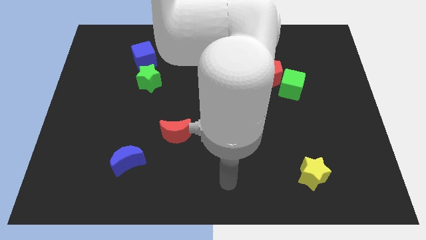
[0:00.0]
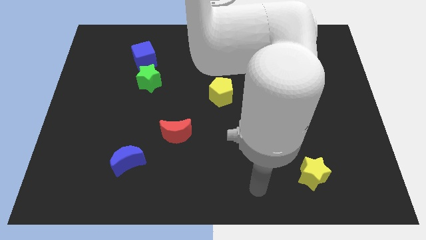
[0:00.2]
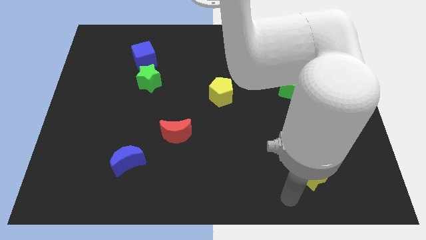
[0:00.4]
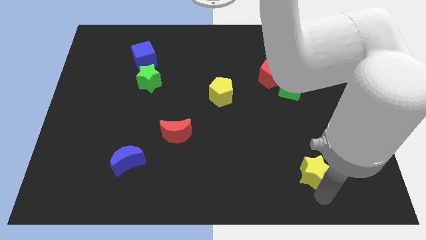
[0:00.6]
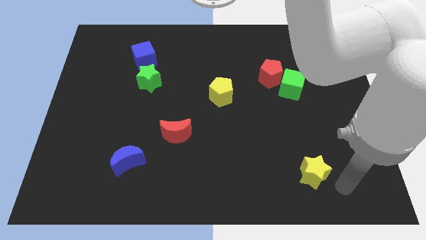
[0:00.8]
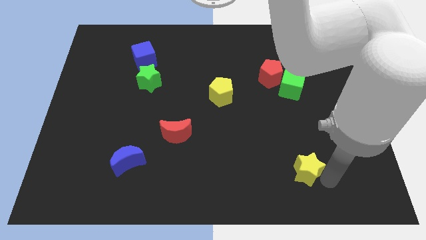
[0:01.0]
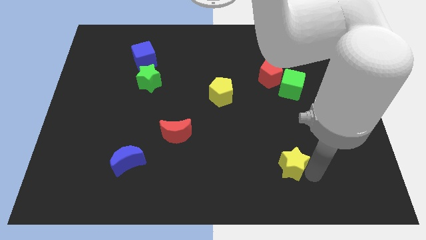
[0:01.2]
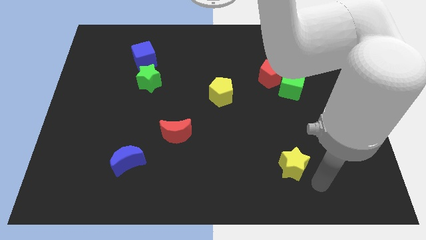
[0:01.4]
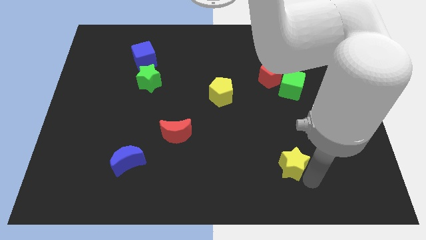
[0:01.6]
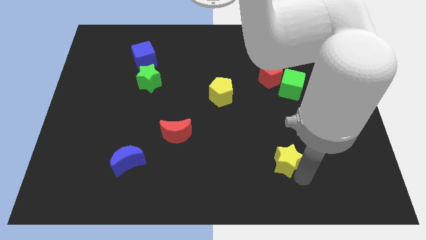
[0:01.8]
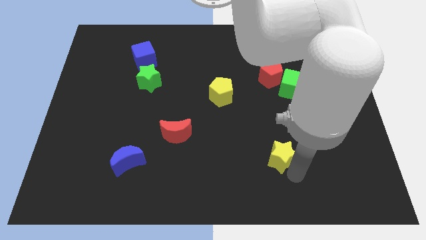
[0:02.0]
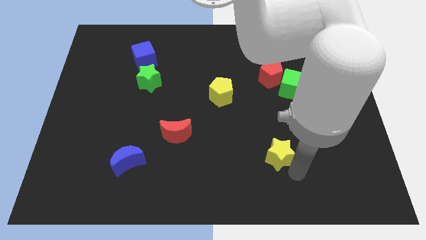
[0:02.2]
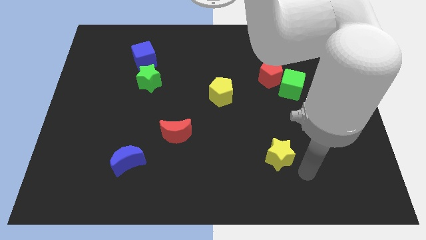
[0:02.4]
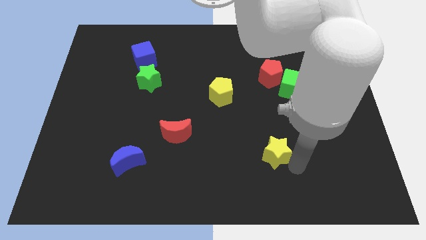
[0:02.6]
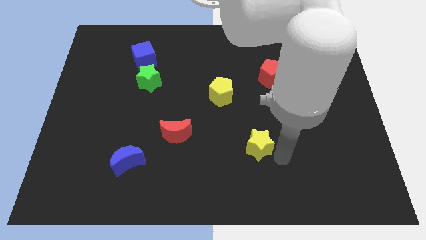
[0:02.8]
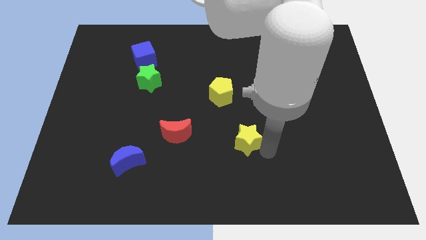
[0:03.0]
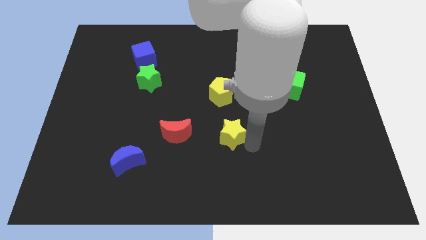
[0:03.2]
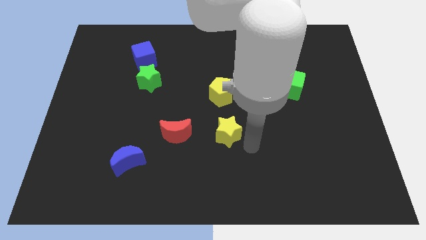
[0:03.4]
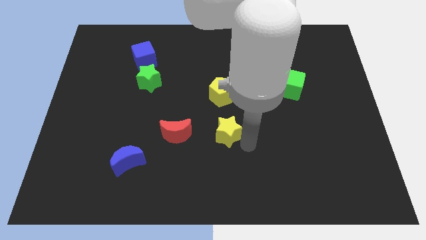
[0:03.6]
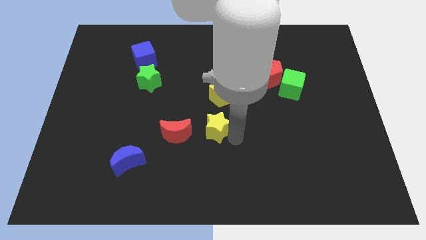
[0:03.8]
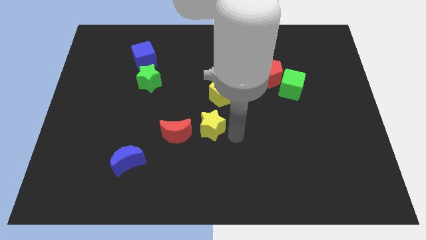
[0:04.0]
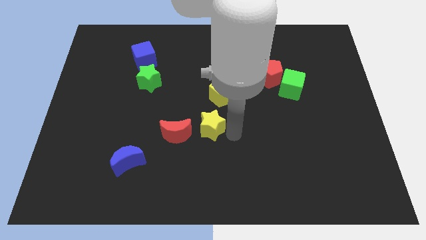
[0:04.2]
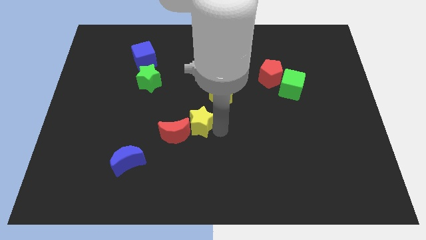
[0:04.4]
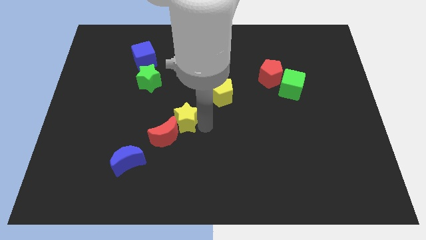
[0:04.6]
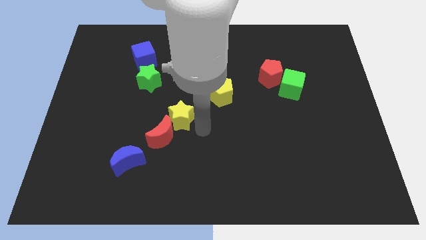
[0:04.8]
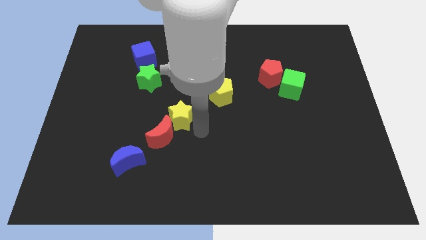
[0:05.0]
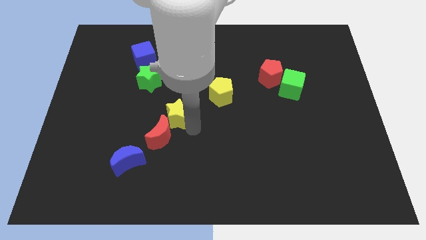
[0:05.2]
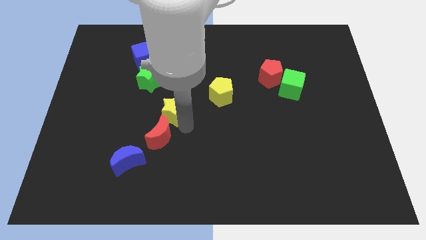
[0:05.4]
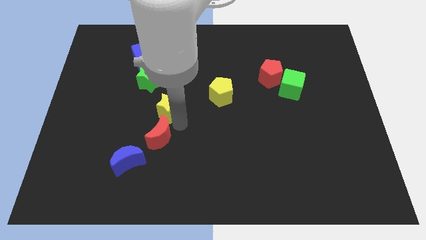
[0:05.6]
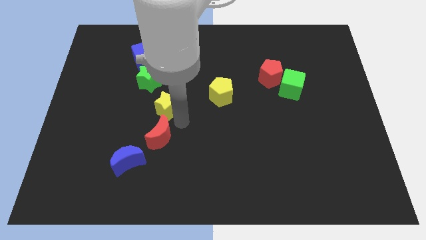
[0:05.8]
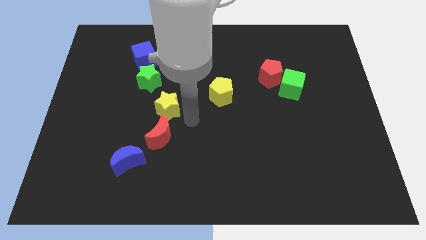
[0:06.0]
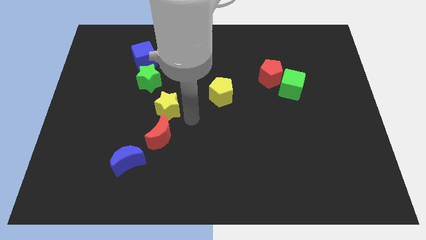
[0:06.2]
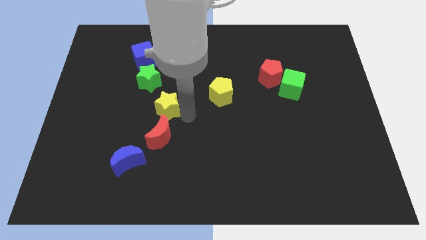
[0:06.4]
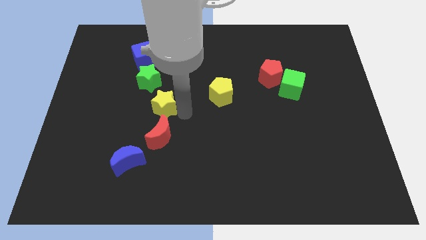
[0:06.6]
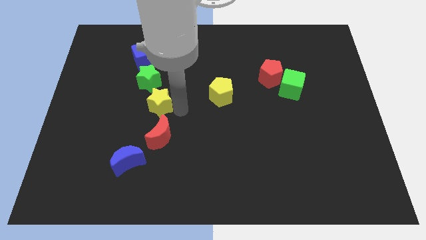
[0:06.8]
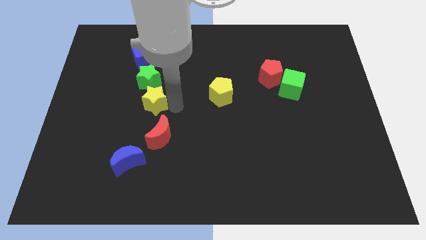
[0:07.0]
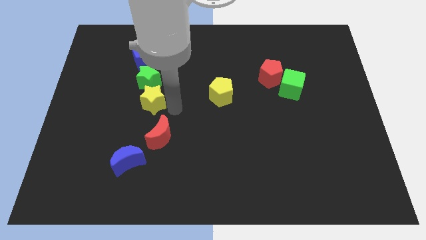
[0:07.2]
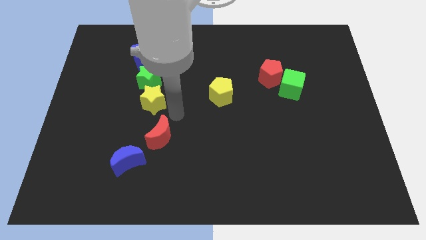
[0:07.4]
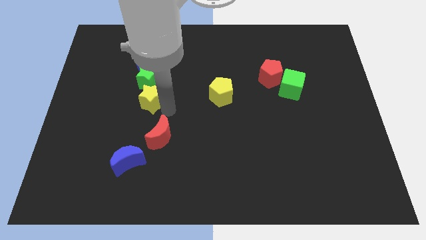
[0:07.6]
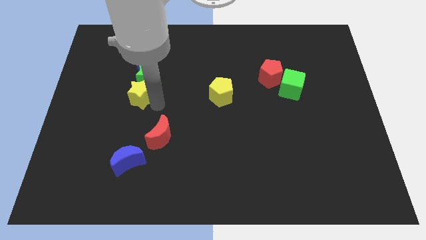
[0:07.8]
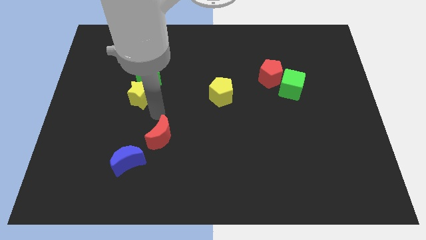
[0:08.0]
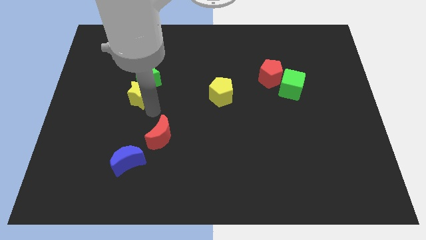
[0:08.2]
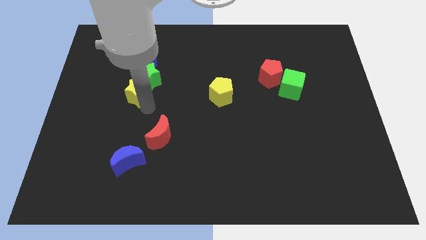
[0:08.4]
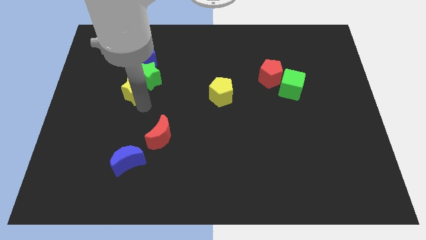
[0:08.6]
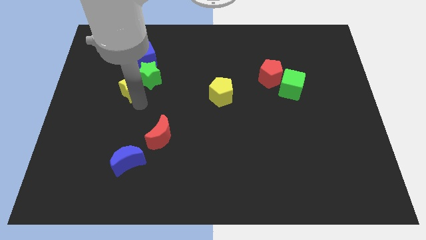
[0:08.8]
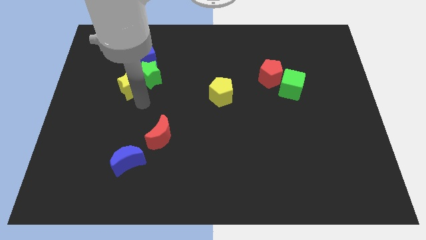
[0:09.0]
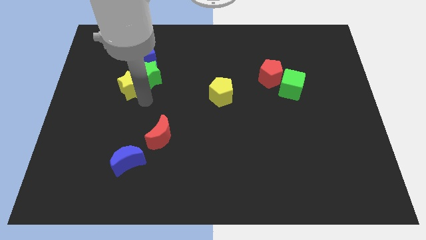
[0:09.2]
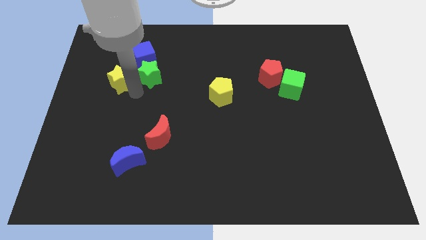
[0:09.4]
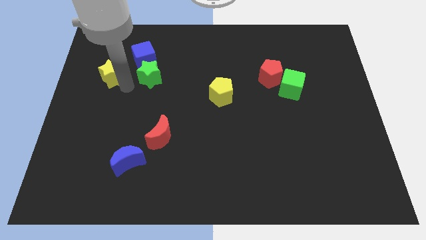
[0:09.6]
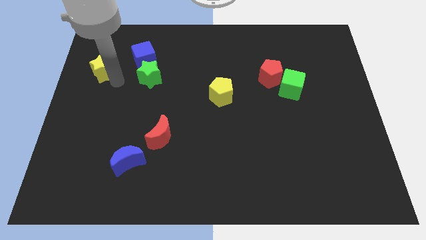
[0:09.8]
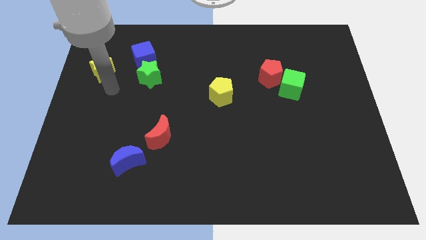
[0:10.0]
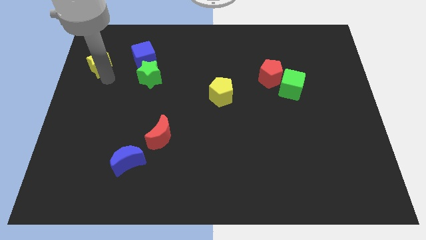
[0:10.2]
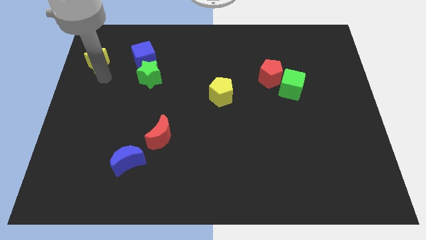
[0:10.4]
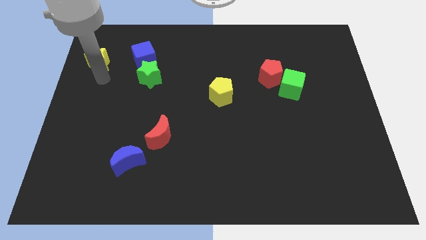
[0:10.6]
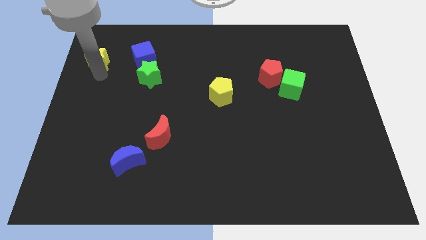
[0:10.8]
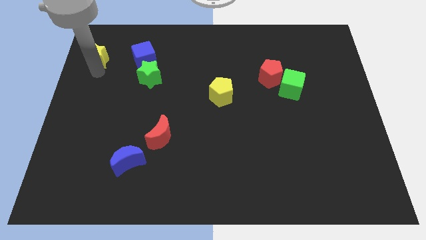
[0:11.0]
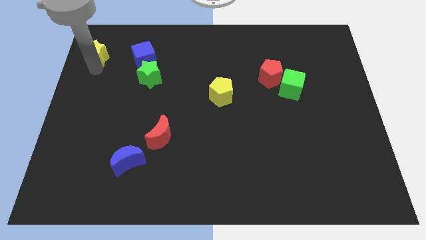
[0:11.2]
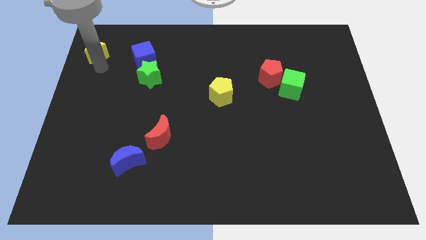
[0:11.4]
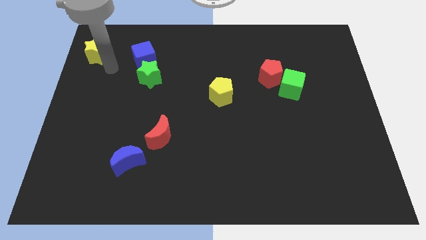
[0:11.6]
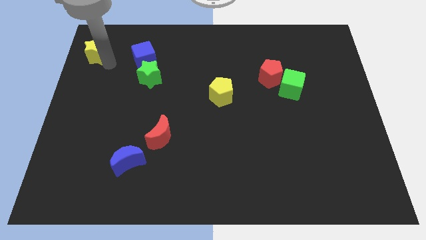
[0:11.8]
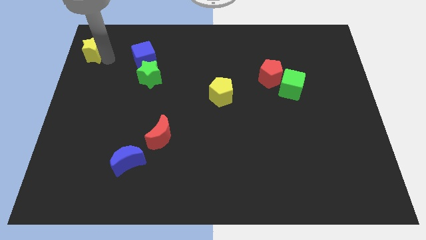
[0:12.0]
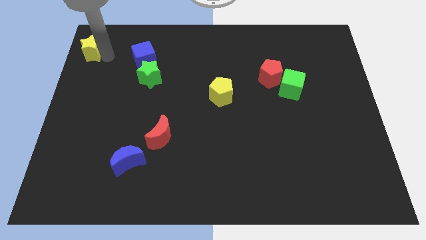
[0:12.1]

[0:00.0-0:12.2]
move the yellow star to the top left of the board

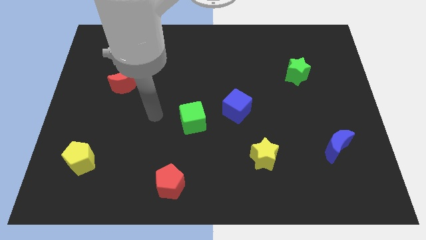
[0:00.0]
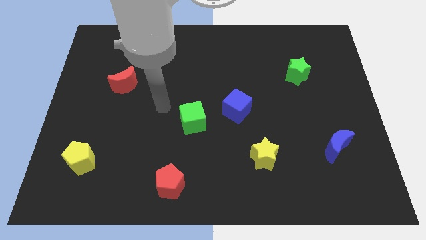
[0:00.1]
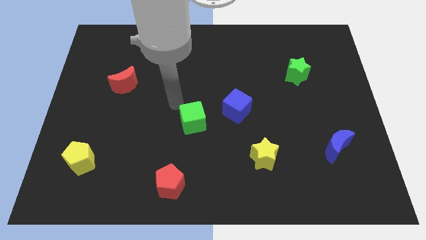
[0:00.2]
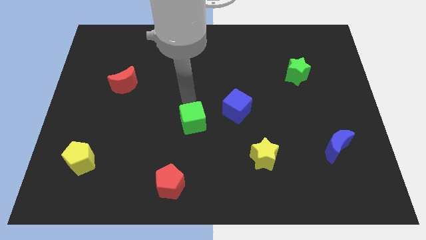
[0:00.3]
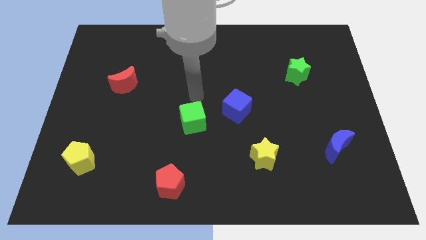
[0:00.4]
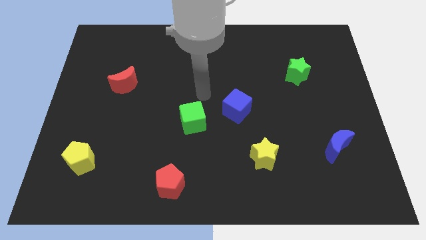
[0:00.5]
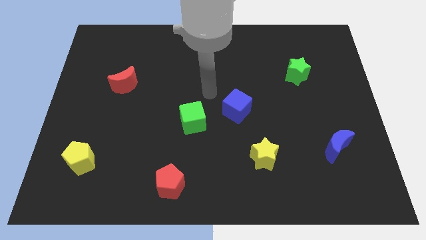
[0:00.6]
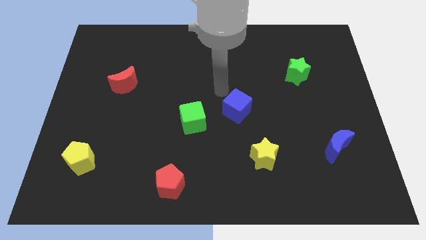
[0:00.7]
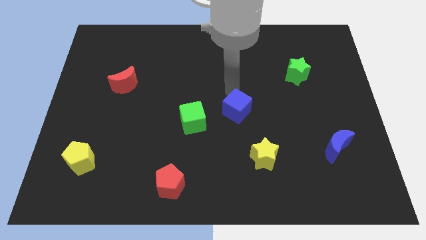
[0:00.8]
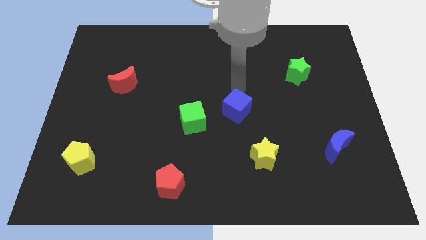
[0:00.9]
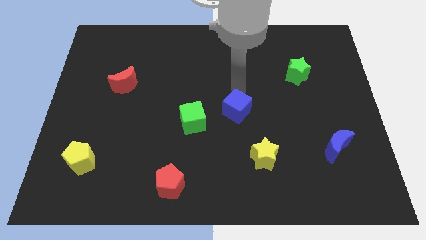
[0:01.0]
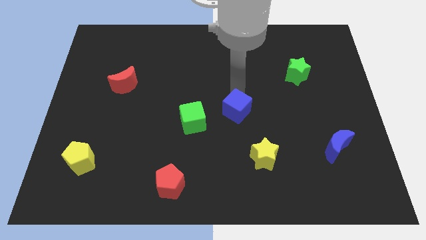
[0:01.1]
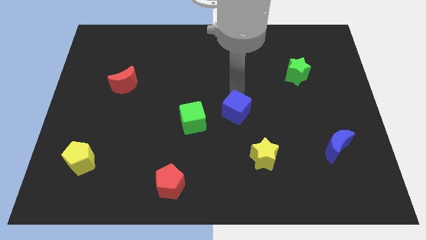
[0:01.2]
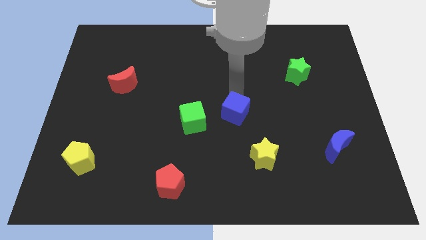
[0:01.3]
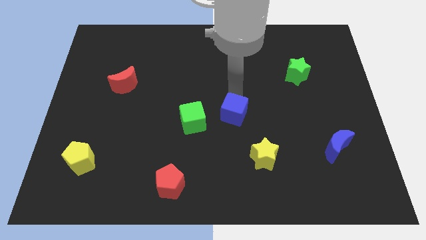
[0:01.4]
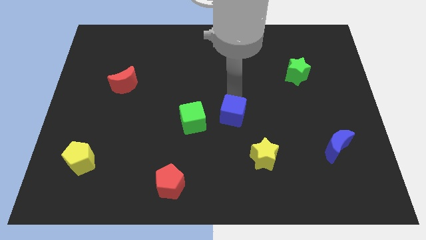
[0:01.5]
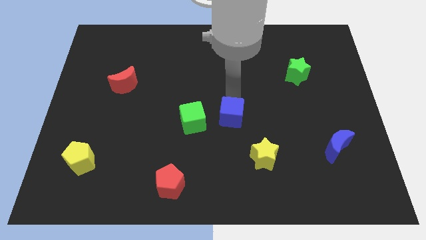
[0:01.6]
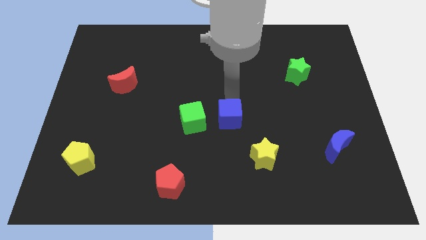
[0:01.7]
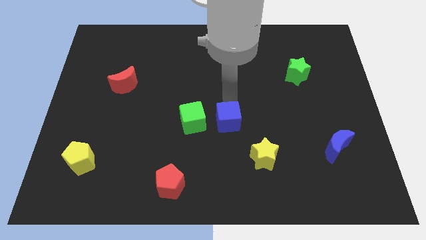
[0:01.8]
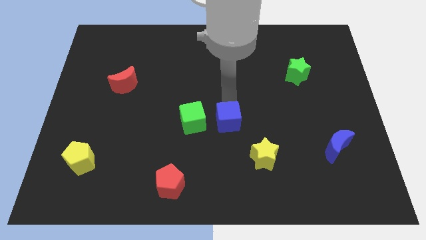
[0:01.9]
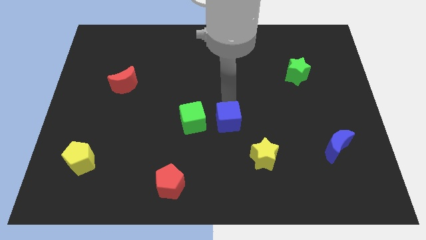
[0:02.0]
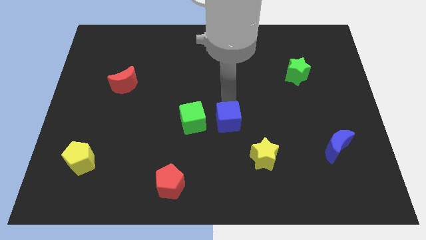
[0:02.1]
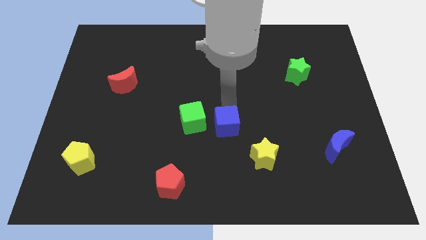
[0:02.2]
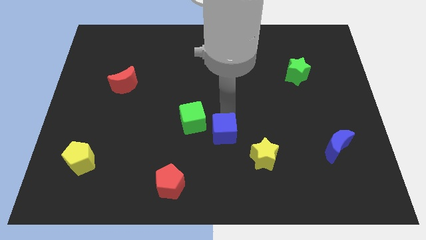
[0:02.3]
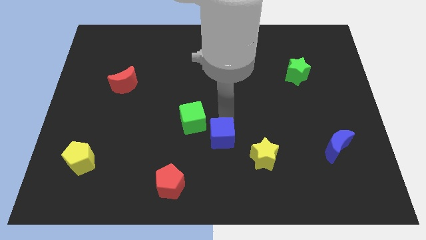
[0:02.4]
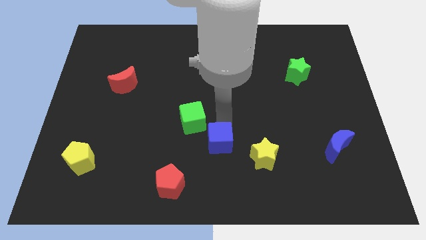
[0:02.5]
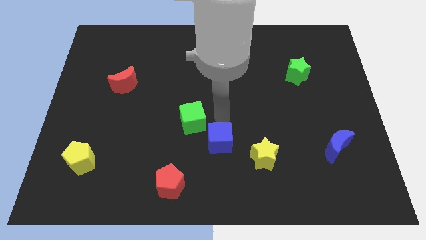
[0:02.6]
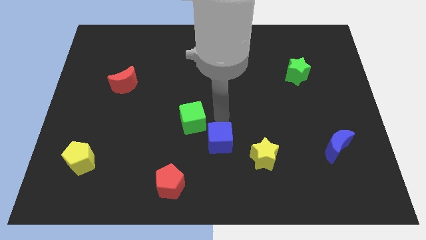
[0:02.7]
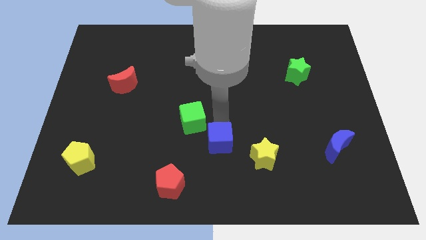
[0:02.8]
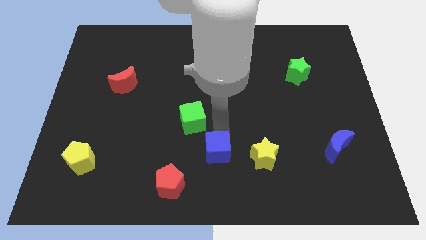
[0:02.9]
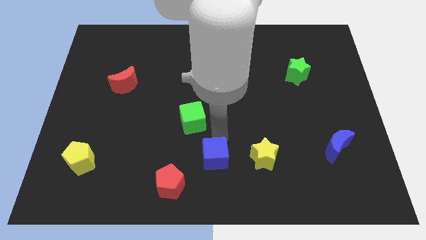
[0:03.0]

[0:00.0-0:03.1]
slide the blue cube to the bottom
